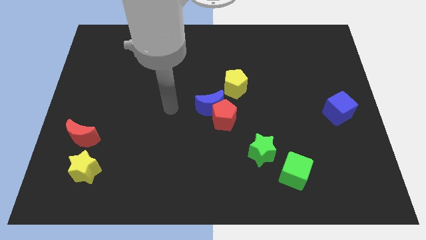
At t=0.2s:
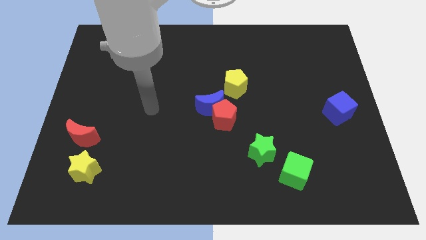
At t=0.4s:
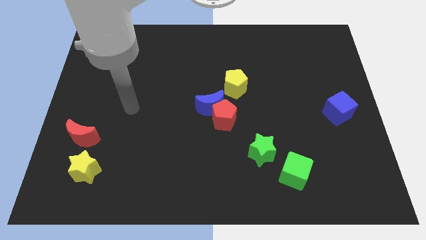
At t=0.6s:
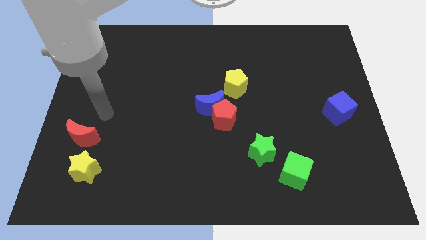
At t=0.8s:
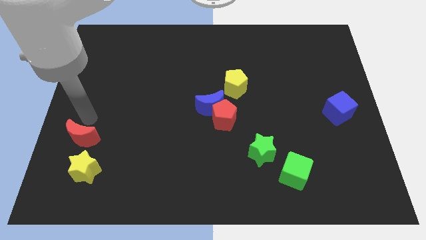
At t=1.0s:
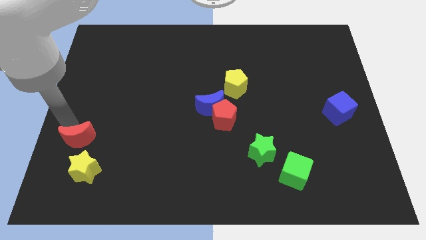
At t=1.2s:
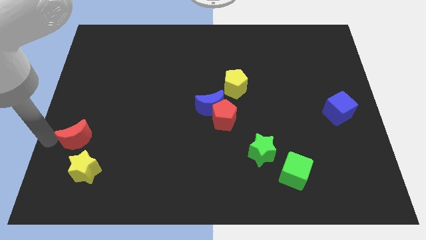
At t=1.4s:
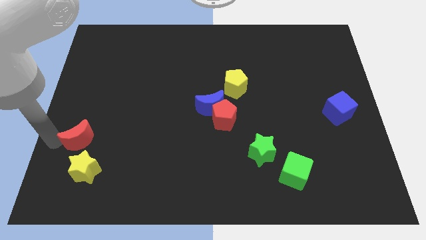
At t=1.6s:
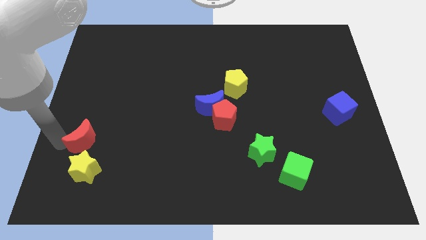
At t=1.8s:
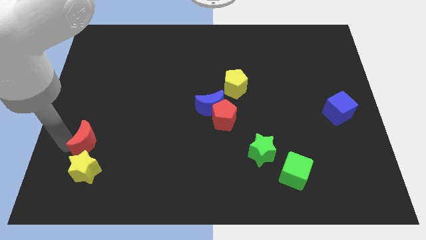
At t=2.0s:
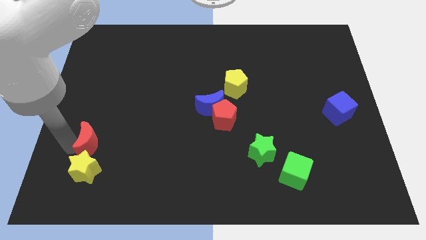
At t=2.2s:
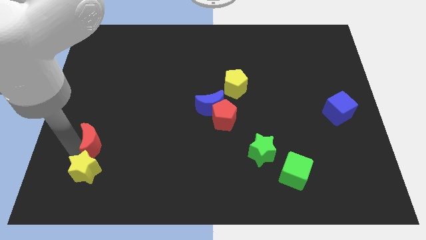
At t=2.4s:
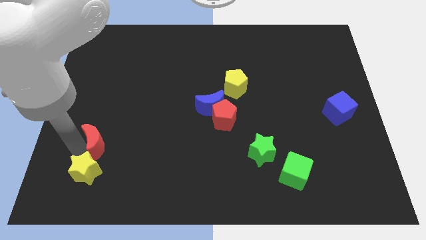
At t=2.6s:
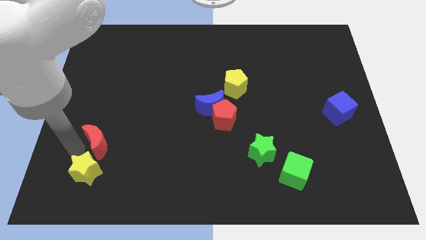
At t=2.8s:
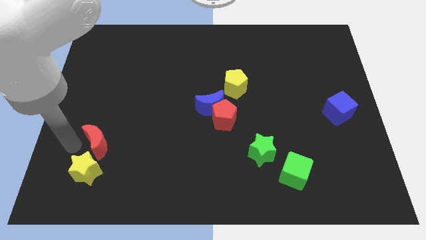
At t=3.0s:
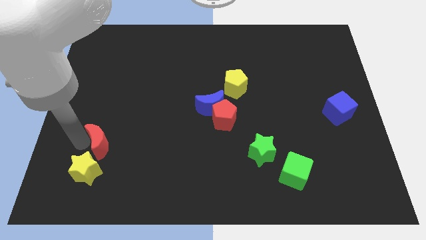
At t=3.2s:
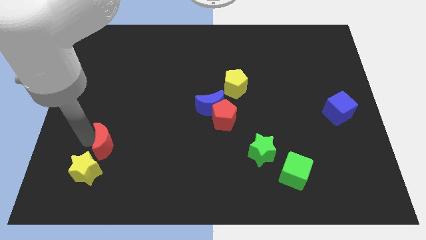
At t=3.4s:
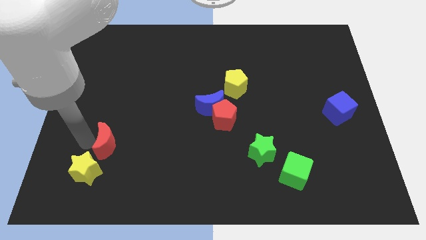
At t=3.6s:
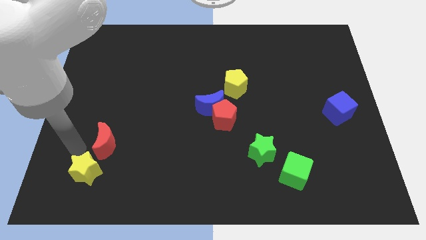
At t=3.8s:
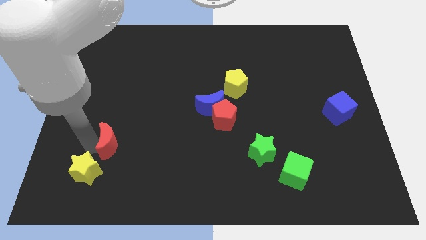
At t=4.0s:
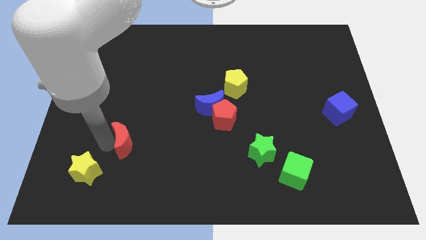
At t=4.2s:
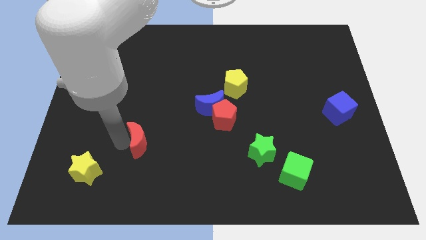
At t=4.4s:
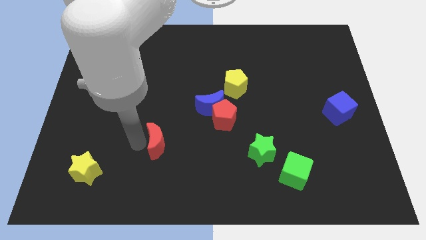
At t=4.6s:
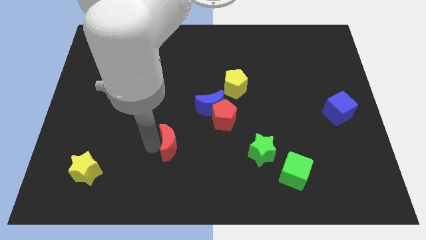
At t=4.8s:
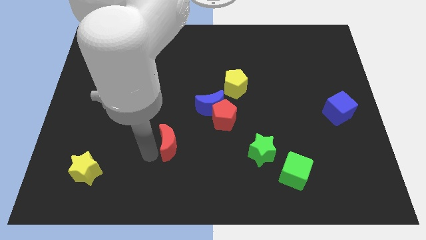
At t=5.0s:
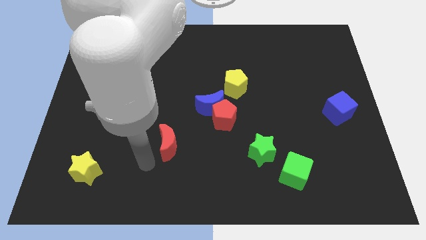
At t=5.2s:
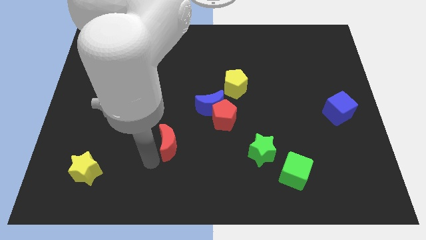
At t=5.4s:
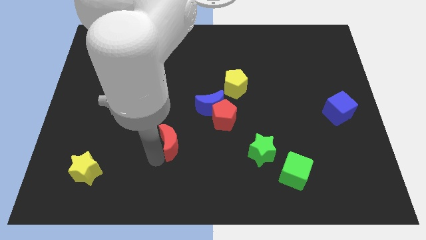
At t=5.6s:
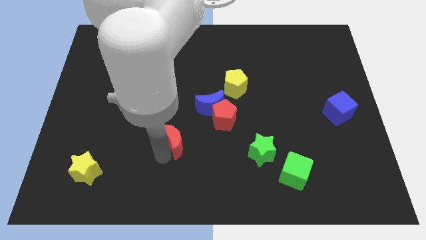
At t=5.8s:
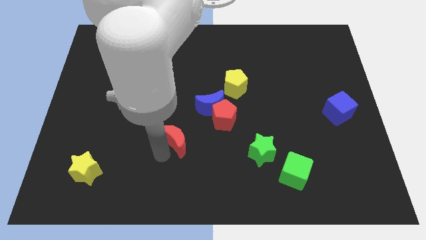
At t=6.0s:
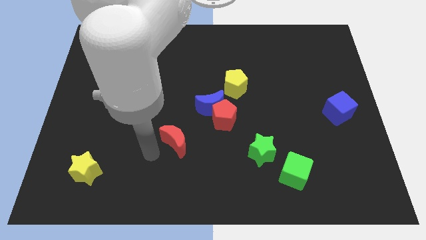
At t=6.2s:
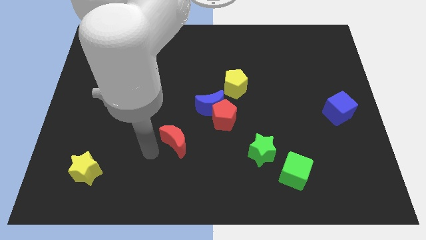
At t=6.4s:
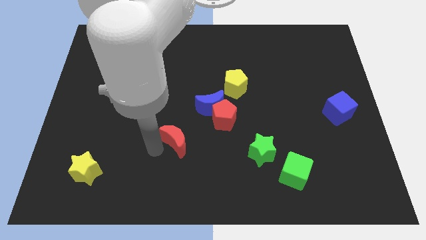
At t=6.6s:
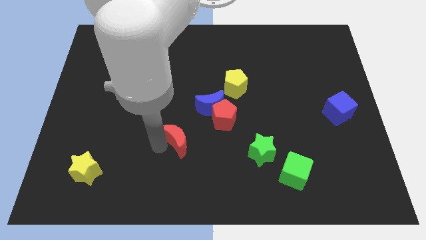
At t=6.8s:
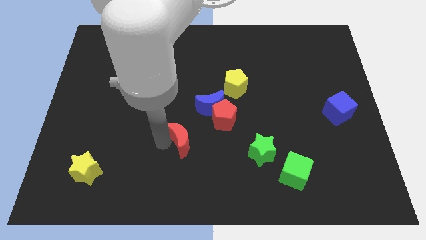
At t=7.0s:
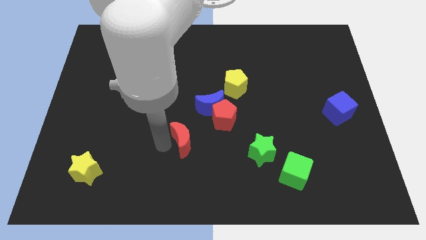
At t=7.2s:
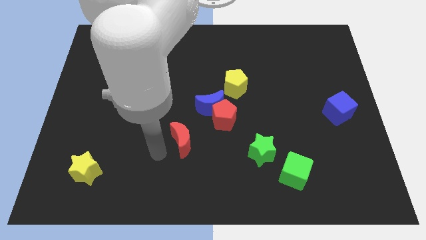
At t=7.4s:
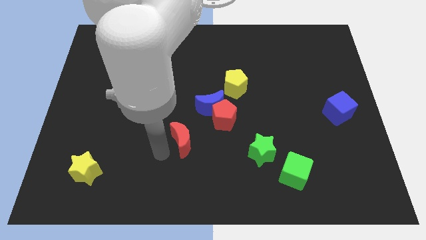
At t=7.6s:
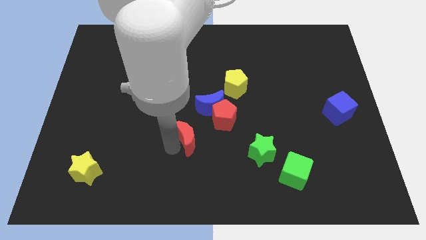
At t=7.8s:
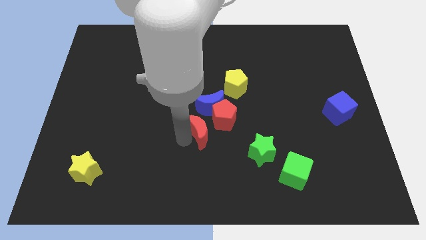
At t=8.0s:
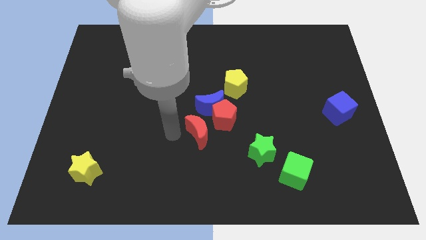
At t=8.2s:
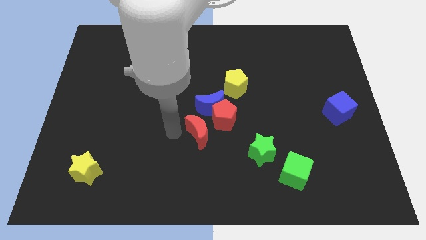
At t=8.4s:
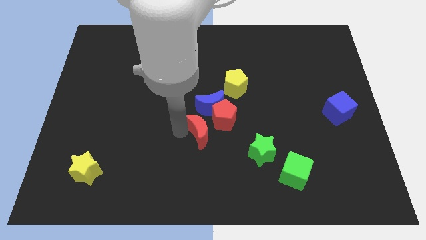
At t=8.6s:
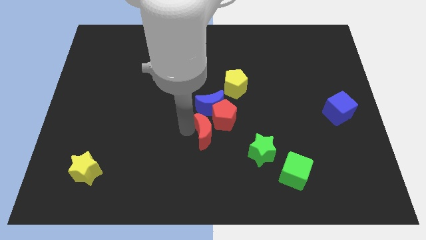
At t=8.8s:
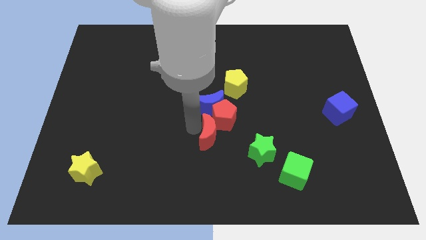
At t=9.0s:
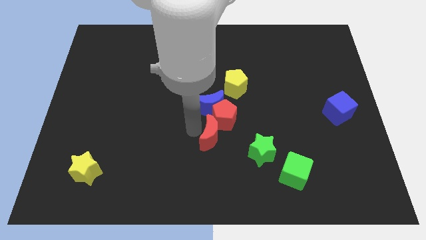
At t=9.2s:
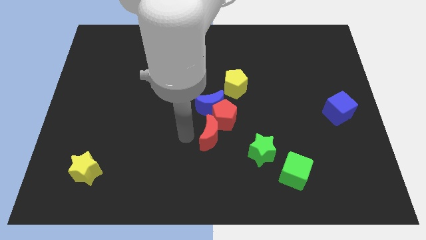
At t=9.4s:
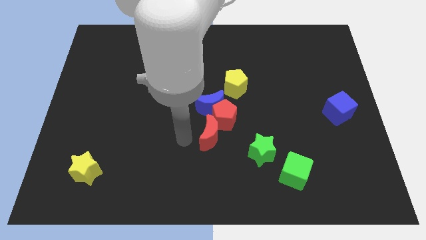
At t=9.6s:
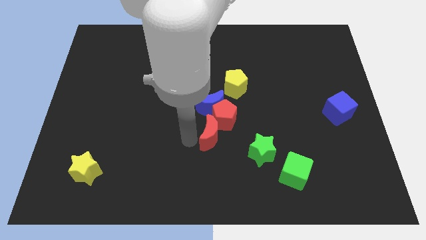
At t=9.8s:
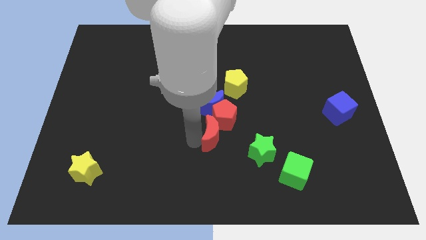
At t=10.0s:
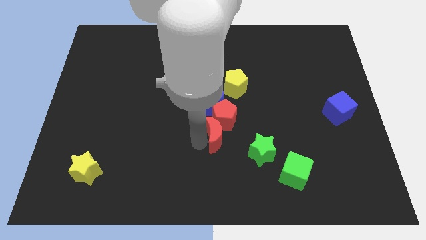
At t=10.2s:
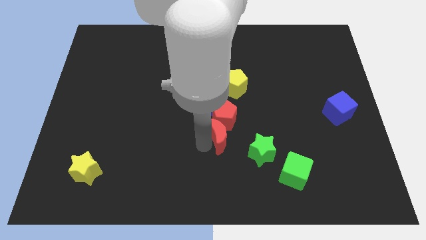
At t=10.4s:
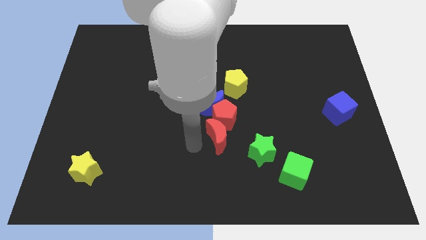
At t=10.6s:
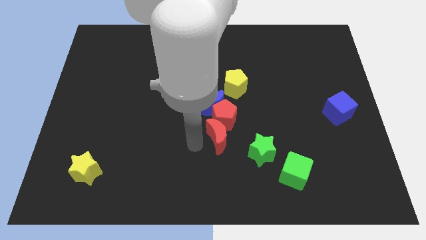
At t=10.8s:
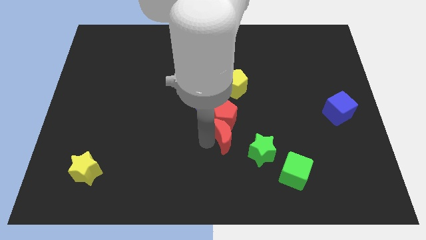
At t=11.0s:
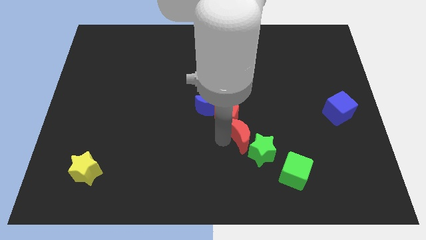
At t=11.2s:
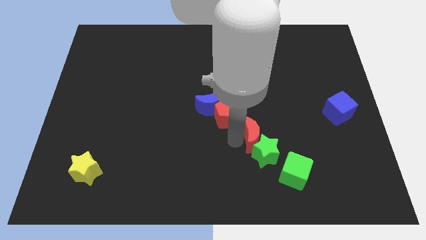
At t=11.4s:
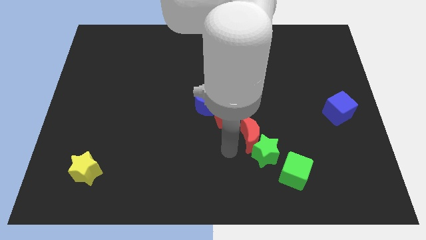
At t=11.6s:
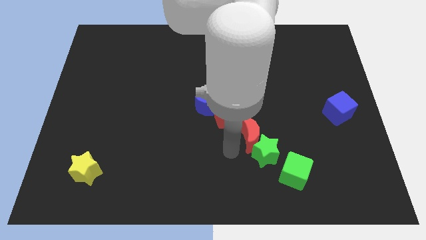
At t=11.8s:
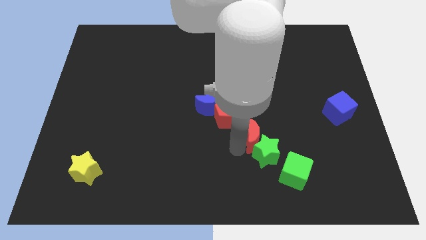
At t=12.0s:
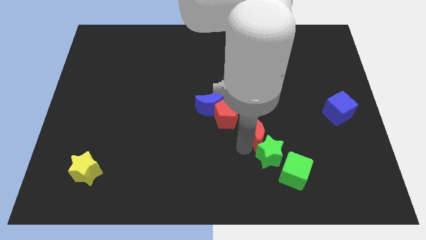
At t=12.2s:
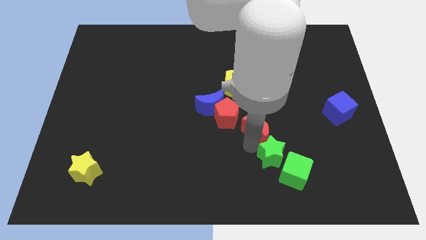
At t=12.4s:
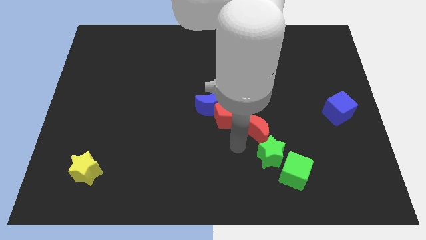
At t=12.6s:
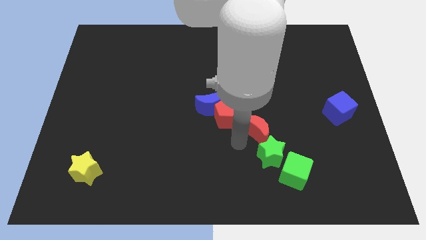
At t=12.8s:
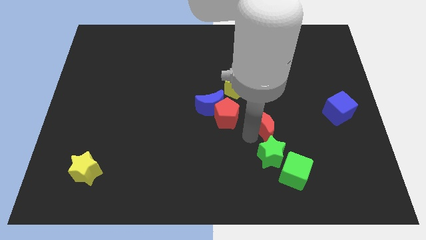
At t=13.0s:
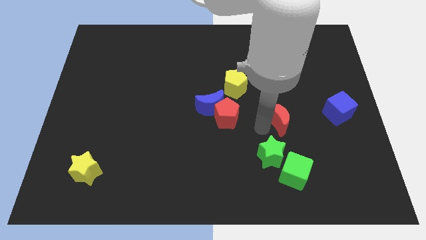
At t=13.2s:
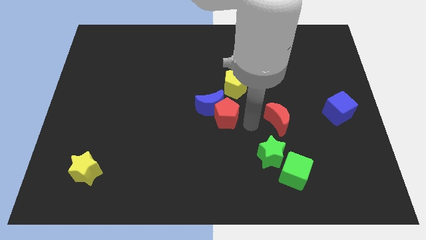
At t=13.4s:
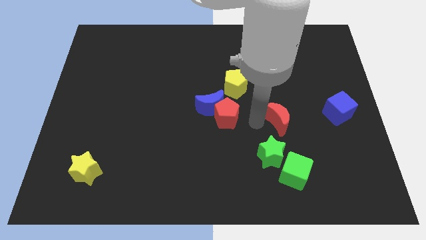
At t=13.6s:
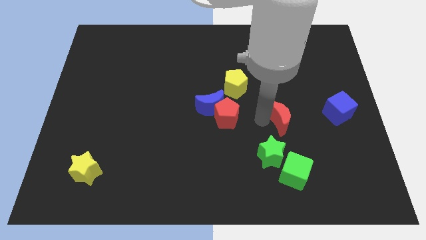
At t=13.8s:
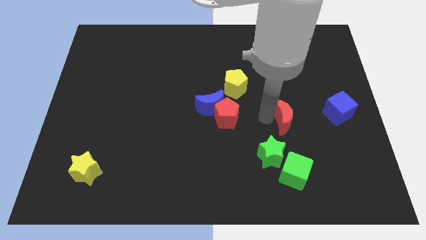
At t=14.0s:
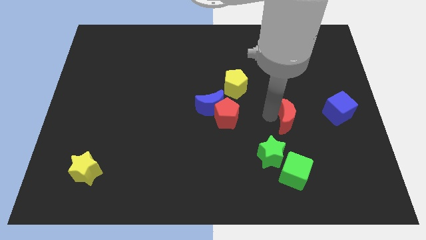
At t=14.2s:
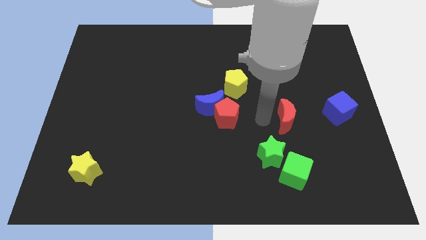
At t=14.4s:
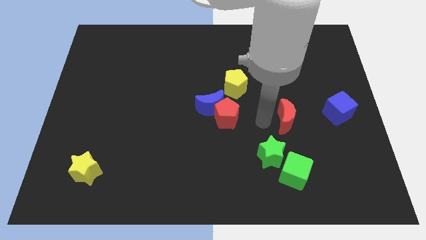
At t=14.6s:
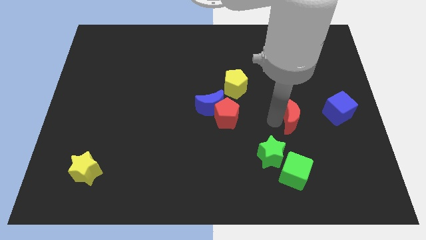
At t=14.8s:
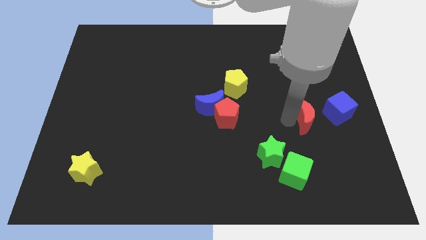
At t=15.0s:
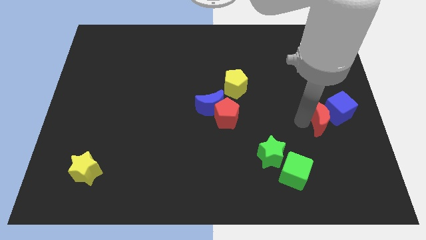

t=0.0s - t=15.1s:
push the red moon next to the blue cube
